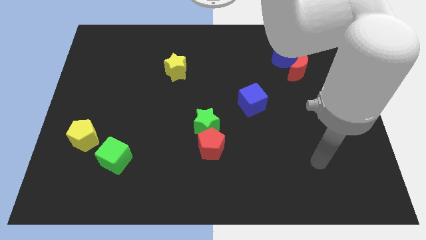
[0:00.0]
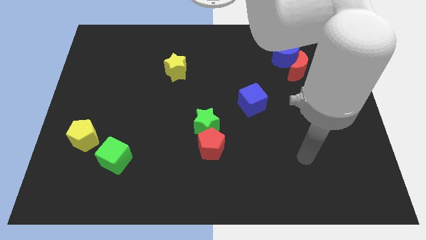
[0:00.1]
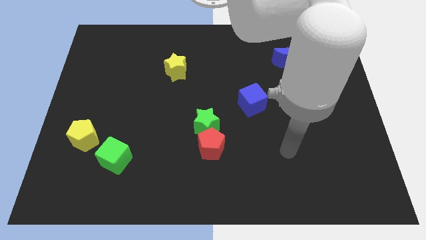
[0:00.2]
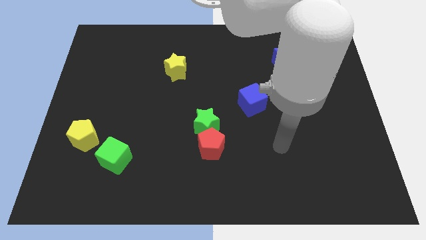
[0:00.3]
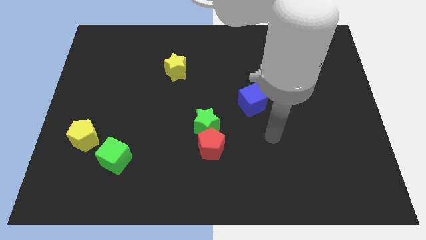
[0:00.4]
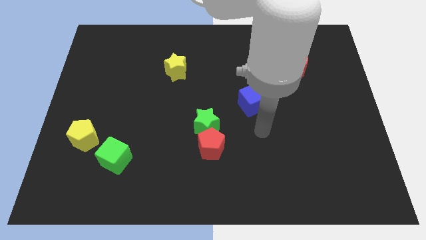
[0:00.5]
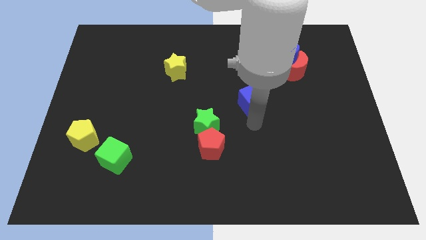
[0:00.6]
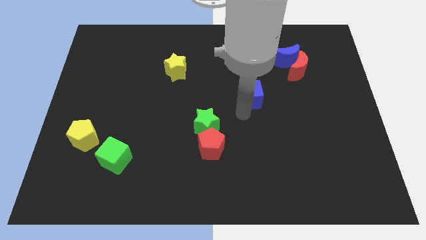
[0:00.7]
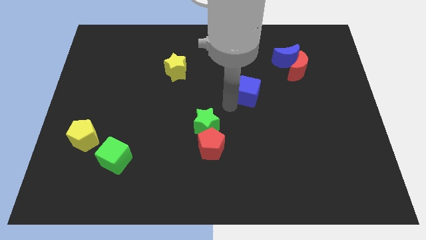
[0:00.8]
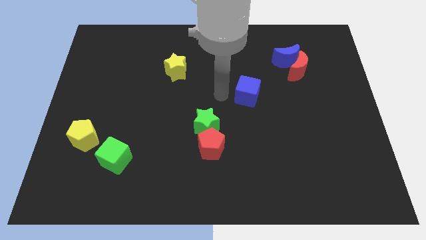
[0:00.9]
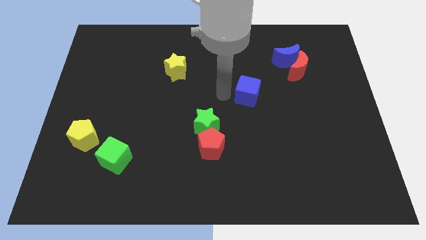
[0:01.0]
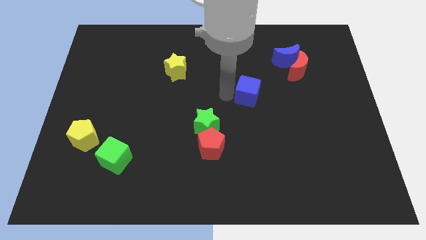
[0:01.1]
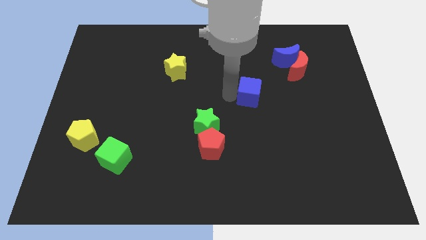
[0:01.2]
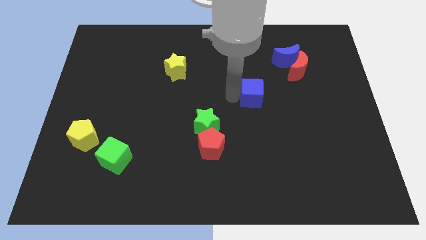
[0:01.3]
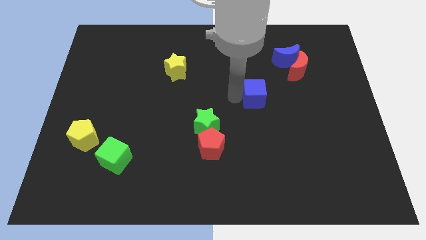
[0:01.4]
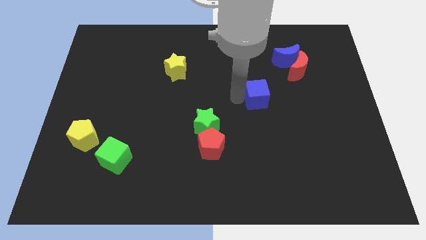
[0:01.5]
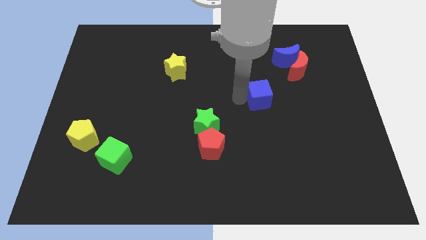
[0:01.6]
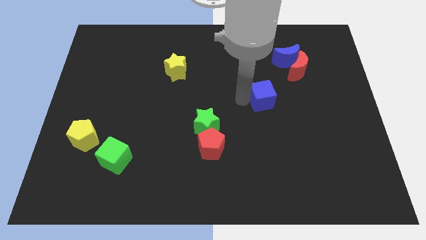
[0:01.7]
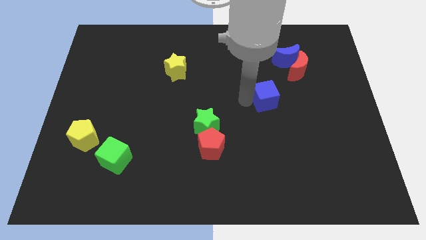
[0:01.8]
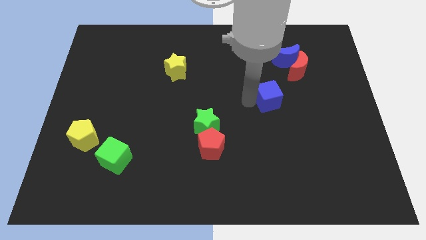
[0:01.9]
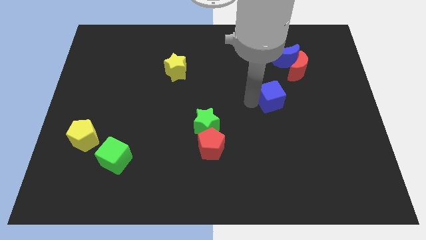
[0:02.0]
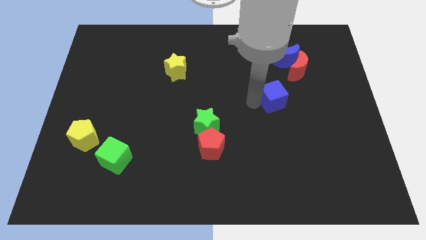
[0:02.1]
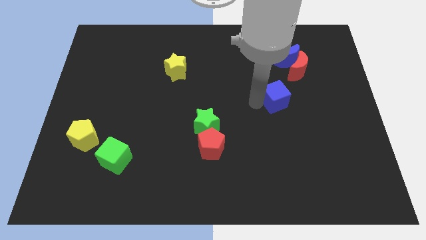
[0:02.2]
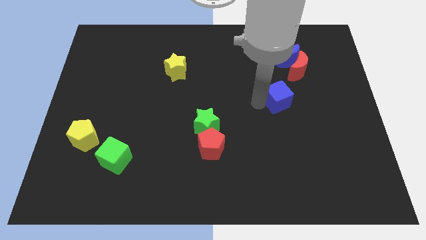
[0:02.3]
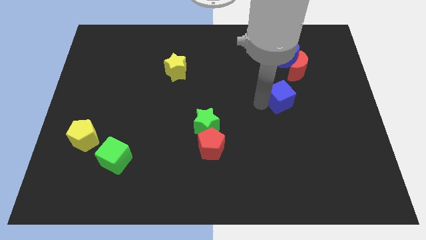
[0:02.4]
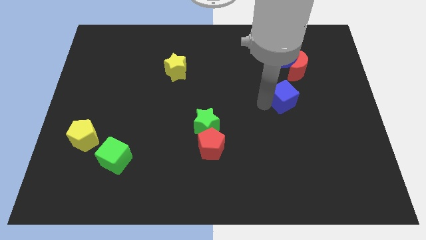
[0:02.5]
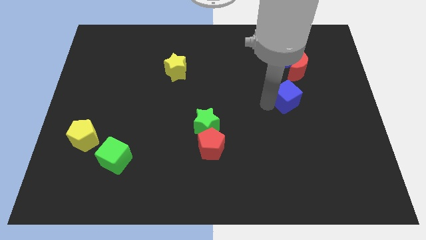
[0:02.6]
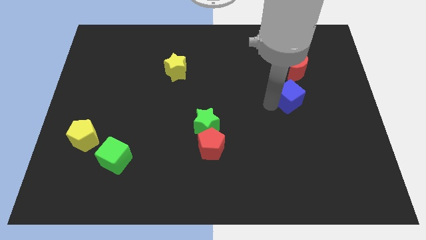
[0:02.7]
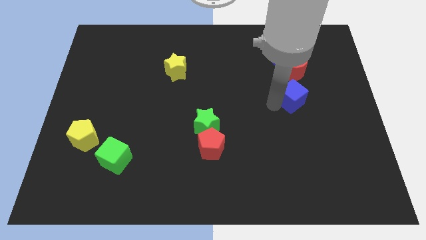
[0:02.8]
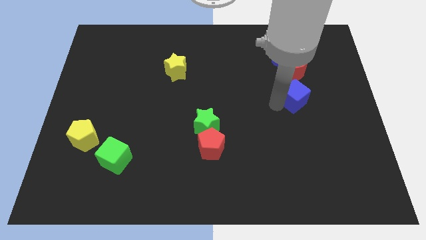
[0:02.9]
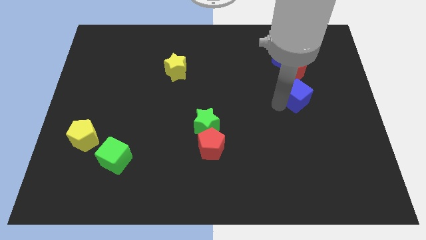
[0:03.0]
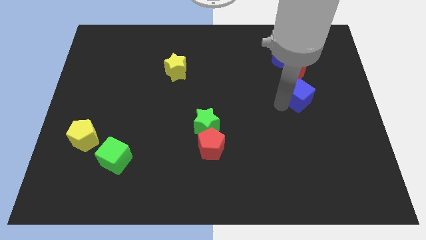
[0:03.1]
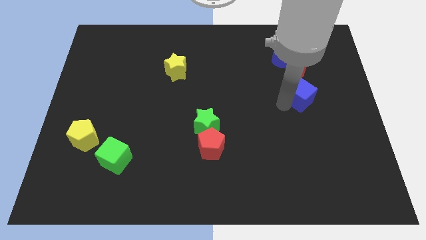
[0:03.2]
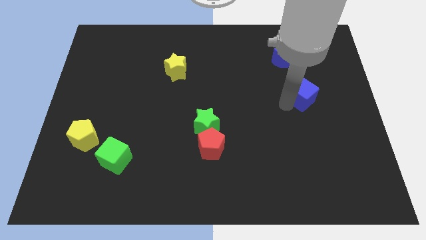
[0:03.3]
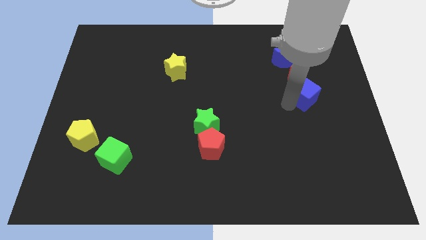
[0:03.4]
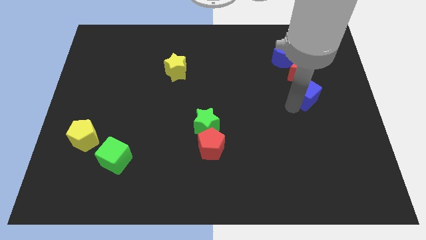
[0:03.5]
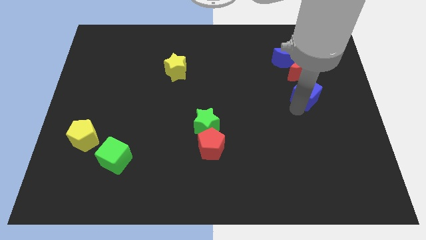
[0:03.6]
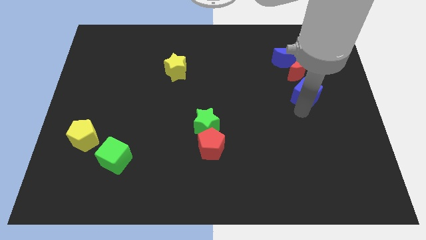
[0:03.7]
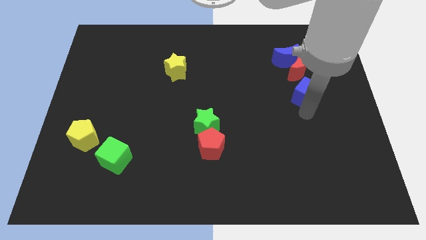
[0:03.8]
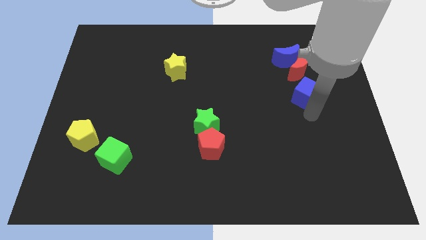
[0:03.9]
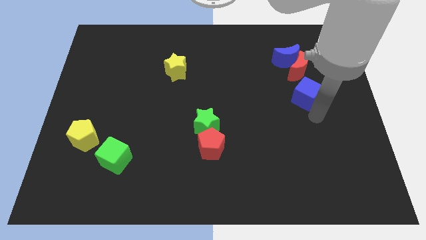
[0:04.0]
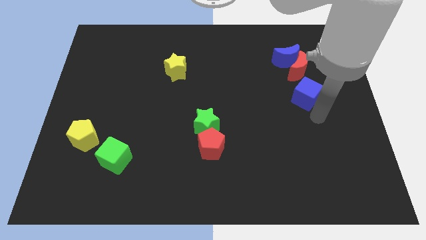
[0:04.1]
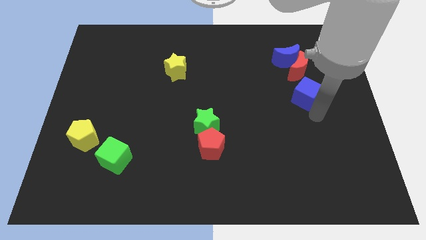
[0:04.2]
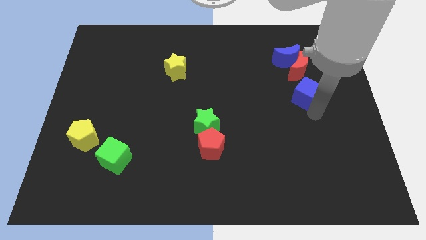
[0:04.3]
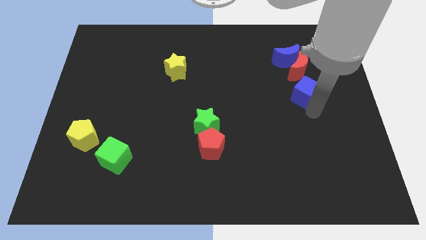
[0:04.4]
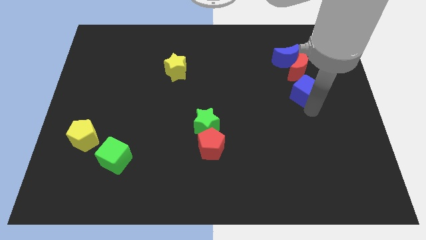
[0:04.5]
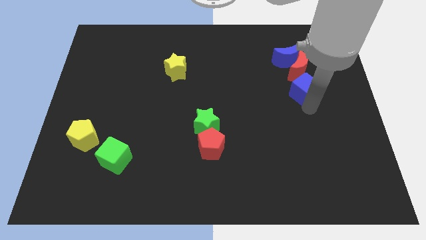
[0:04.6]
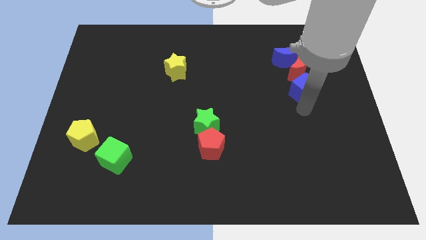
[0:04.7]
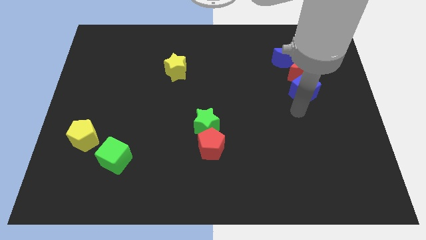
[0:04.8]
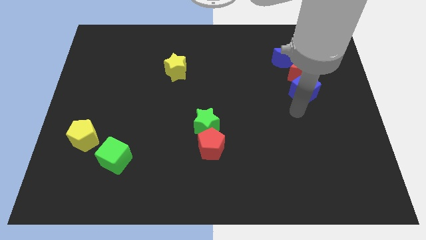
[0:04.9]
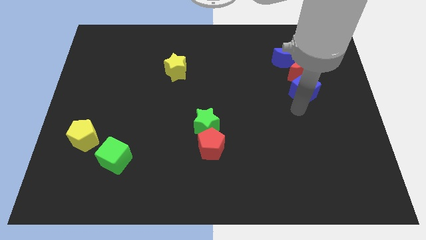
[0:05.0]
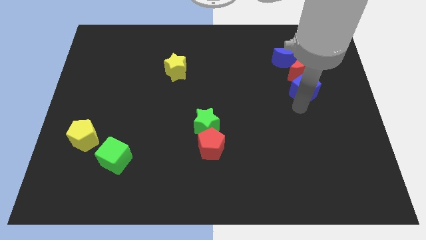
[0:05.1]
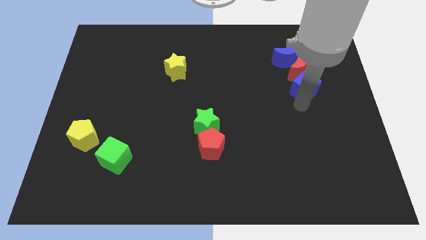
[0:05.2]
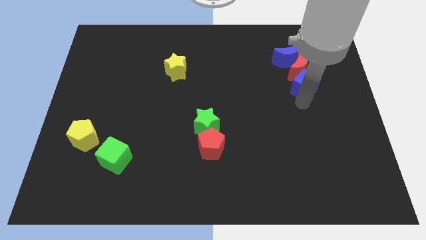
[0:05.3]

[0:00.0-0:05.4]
push the blue cube diagonally down and to the right of the blue moon

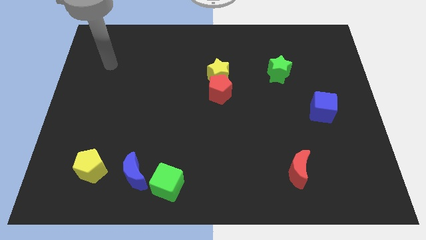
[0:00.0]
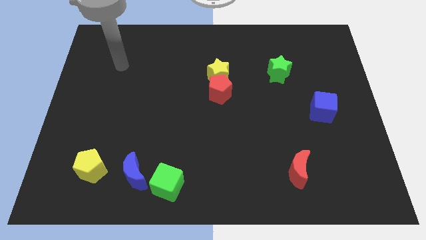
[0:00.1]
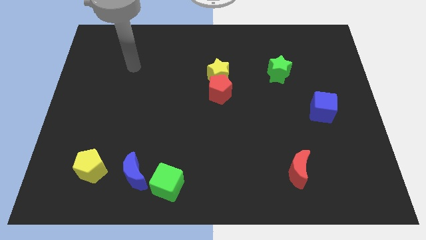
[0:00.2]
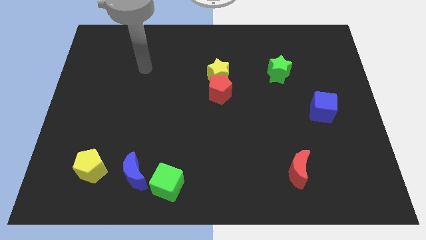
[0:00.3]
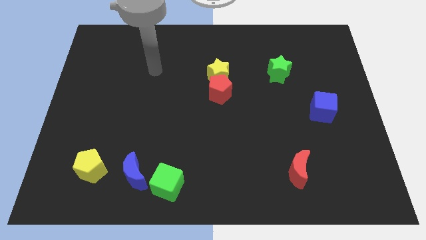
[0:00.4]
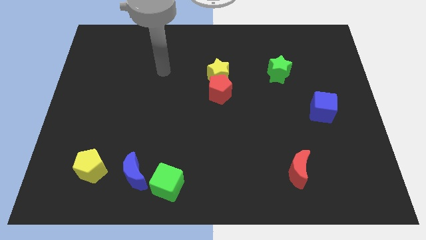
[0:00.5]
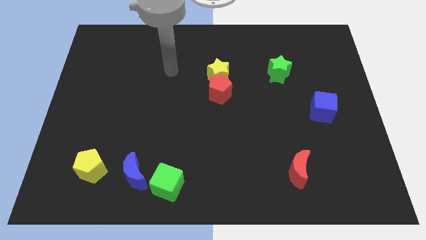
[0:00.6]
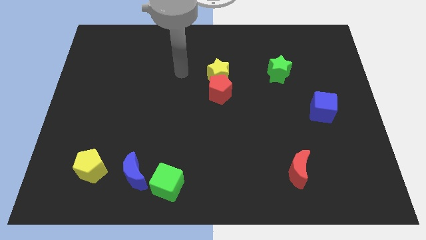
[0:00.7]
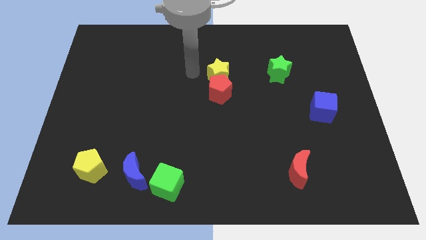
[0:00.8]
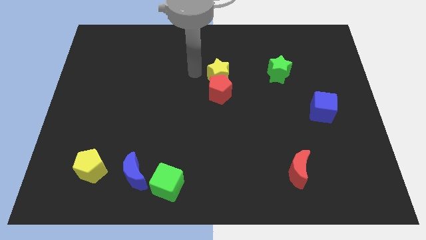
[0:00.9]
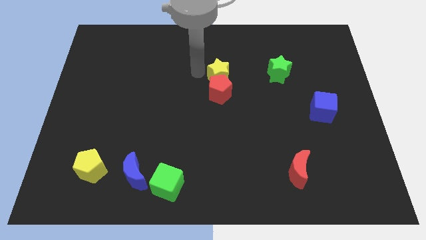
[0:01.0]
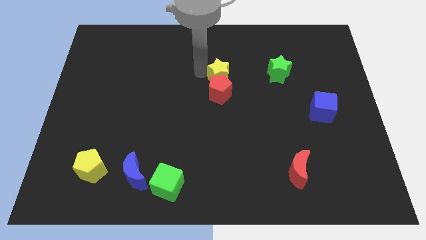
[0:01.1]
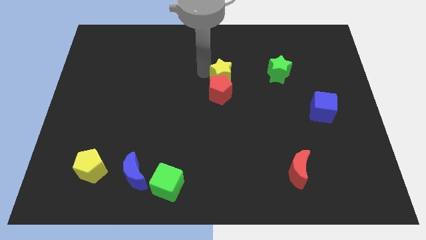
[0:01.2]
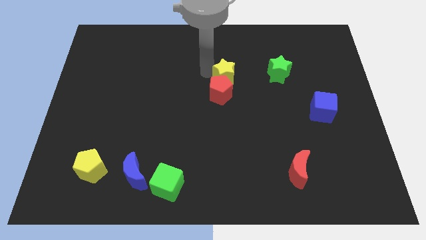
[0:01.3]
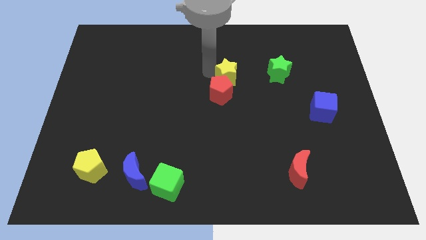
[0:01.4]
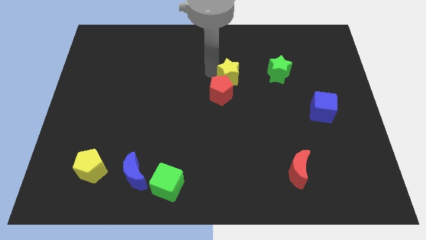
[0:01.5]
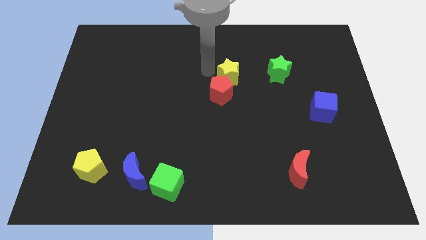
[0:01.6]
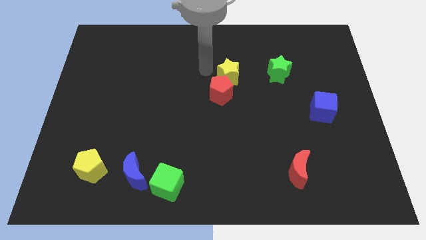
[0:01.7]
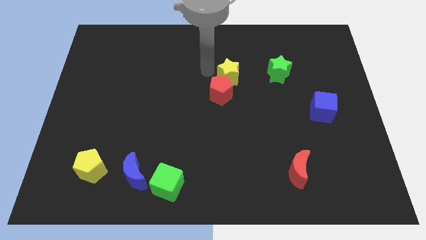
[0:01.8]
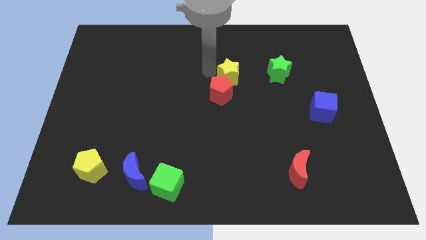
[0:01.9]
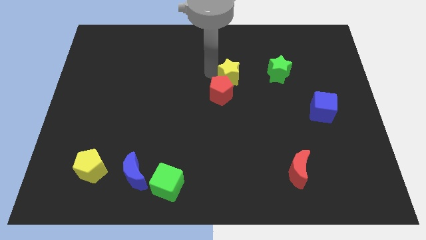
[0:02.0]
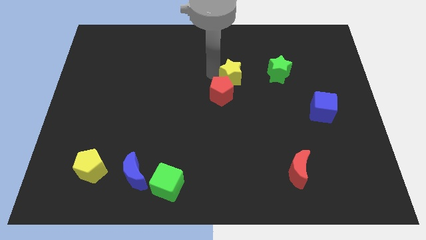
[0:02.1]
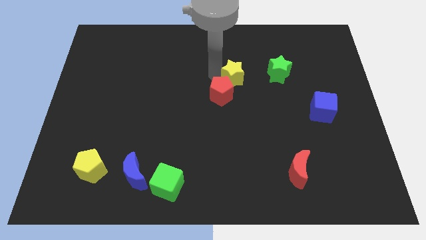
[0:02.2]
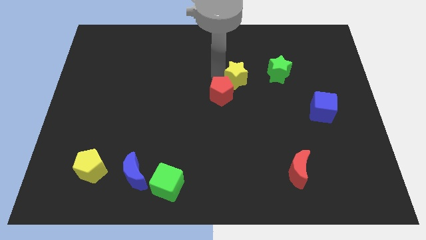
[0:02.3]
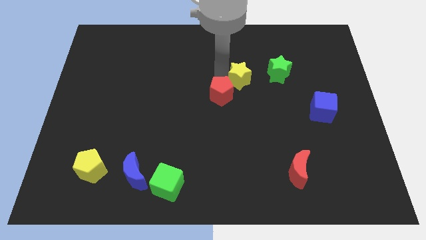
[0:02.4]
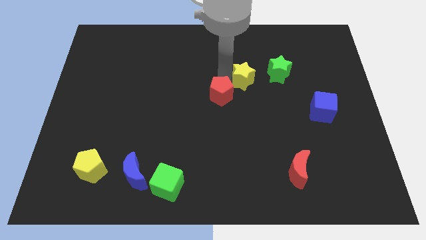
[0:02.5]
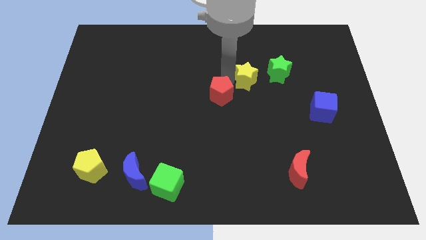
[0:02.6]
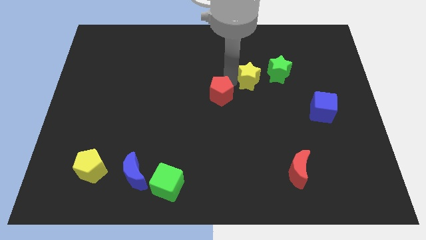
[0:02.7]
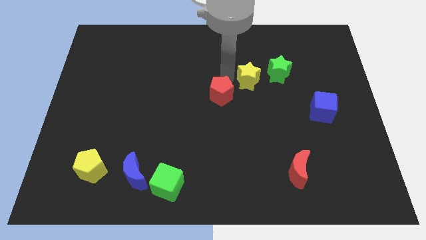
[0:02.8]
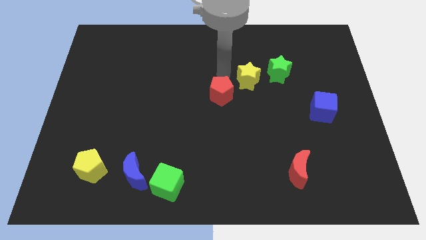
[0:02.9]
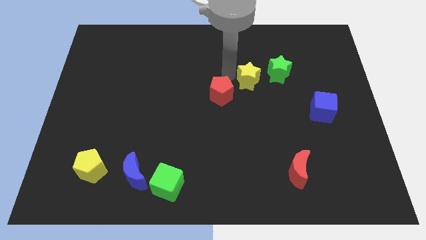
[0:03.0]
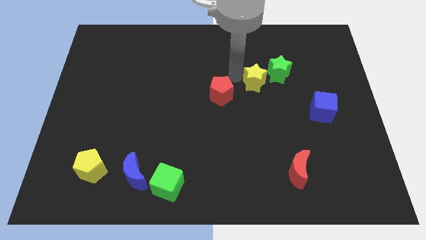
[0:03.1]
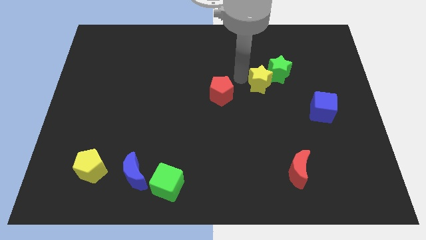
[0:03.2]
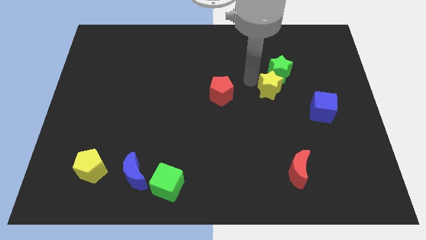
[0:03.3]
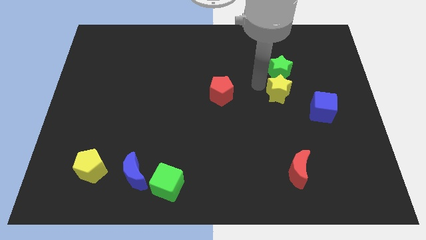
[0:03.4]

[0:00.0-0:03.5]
put the yellow star to the bottom right side of the green star
